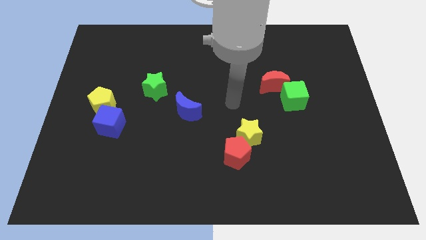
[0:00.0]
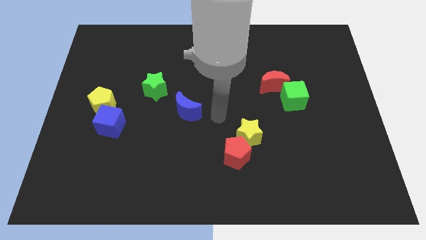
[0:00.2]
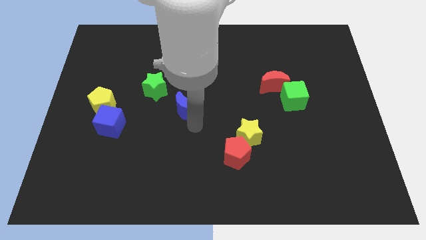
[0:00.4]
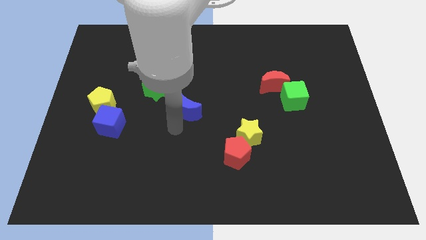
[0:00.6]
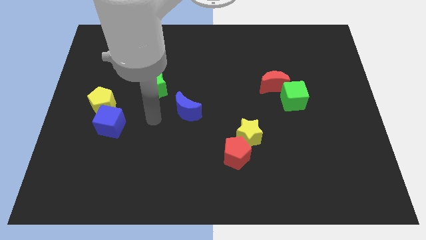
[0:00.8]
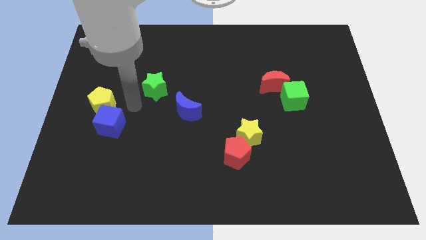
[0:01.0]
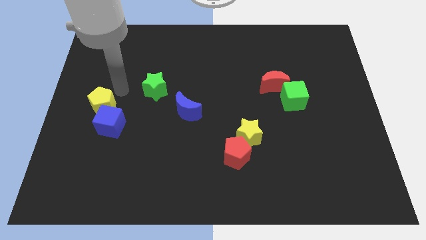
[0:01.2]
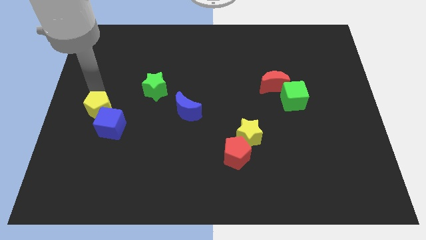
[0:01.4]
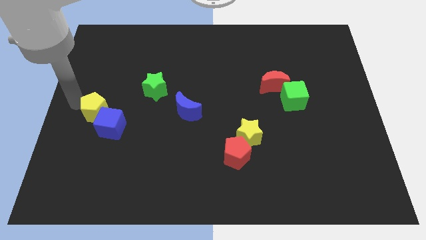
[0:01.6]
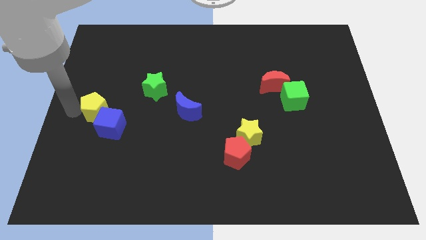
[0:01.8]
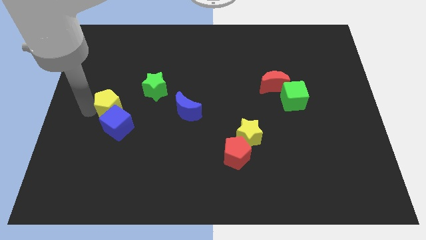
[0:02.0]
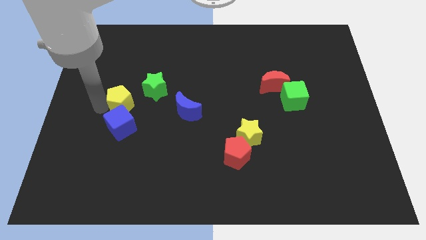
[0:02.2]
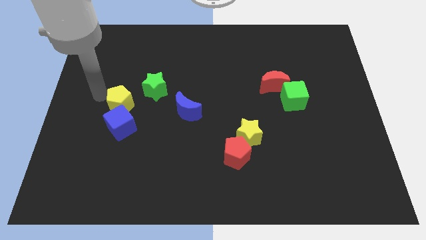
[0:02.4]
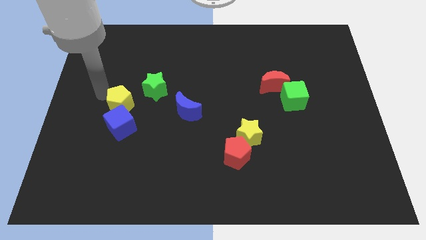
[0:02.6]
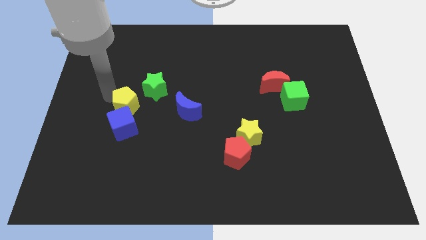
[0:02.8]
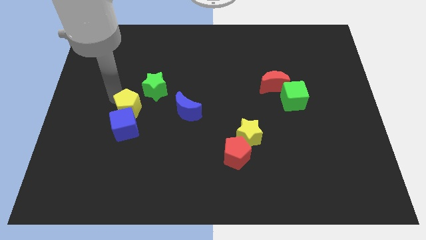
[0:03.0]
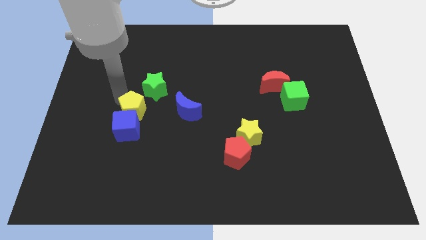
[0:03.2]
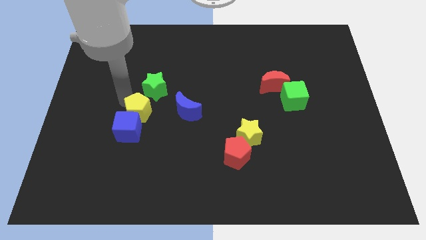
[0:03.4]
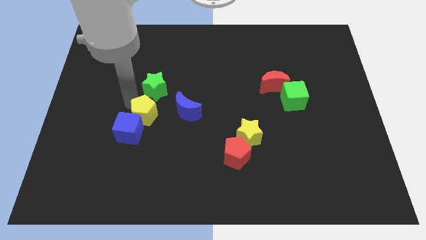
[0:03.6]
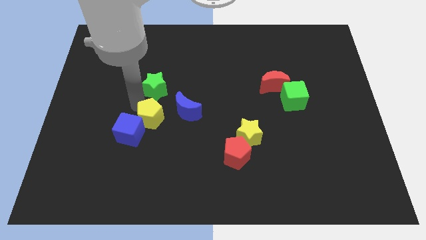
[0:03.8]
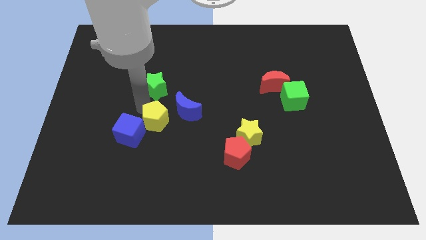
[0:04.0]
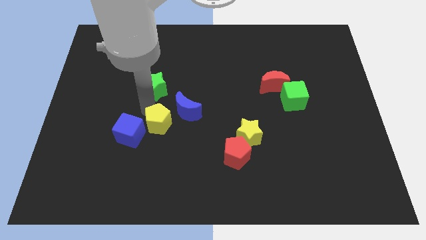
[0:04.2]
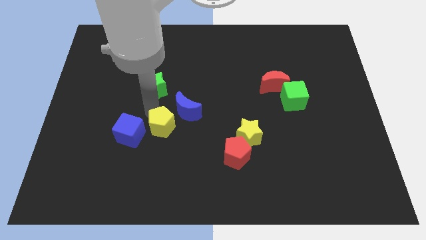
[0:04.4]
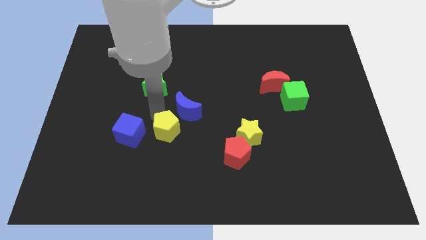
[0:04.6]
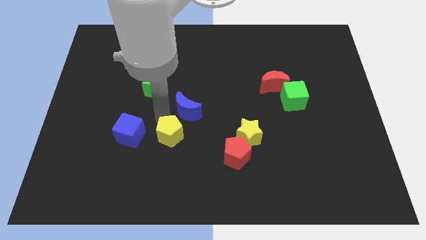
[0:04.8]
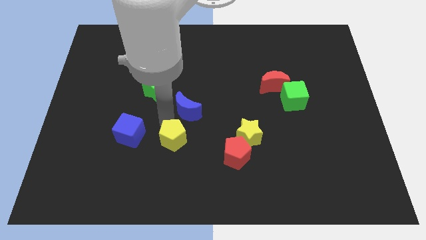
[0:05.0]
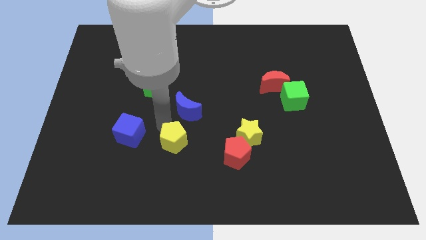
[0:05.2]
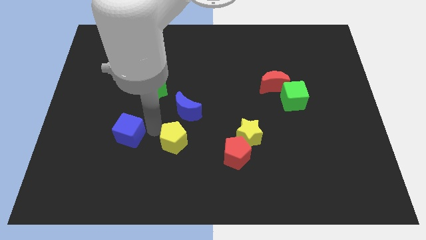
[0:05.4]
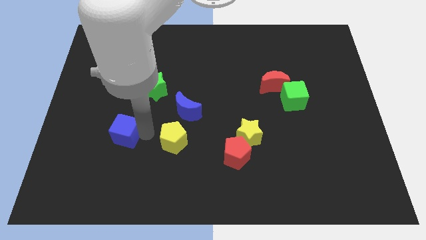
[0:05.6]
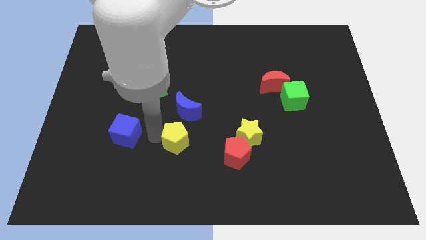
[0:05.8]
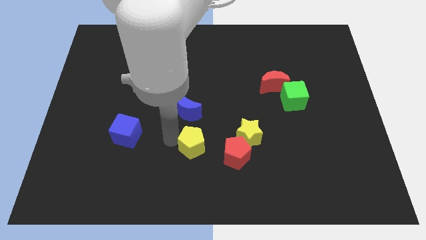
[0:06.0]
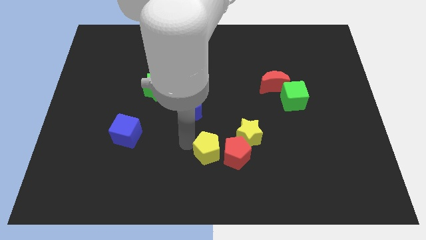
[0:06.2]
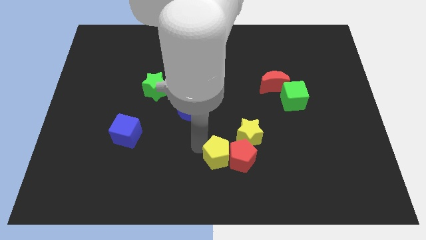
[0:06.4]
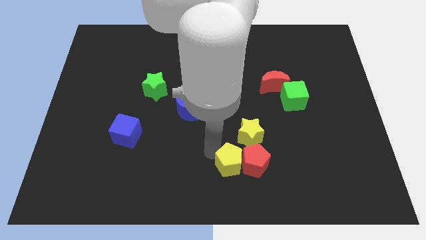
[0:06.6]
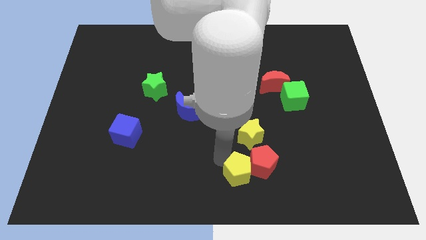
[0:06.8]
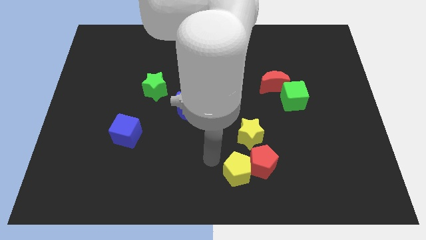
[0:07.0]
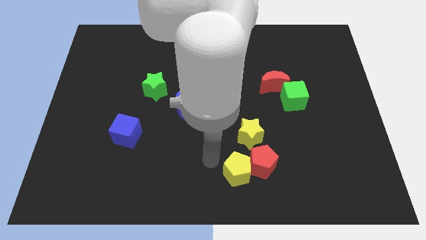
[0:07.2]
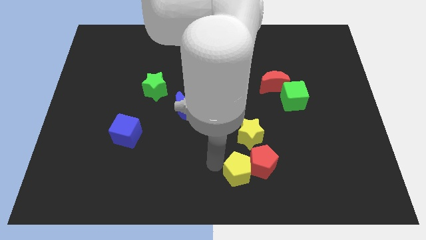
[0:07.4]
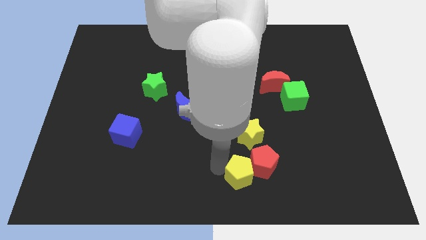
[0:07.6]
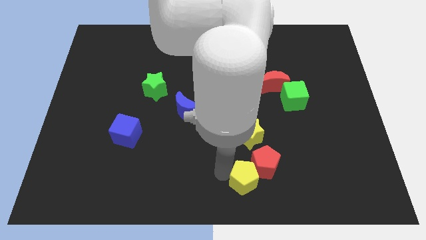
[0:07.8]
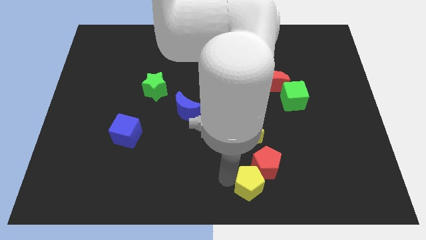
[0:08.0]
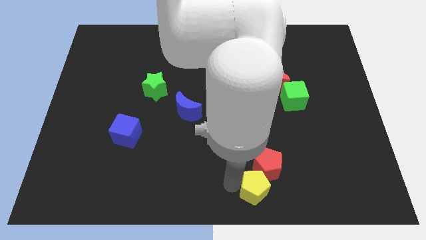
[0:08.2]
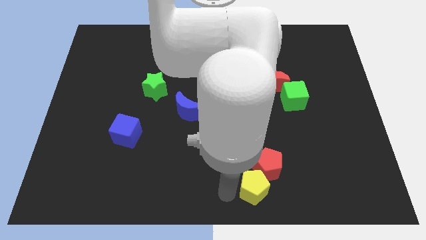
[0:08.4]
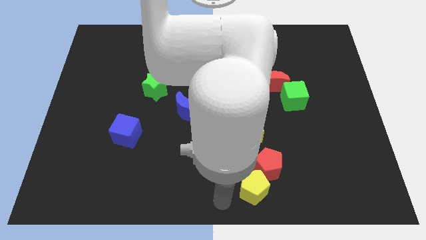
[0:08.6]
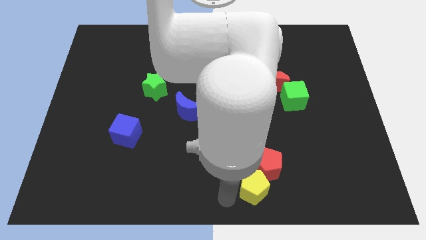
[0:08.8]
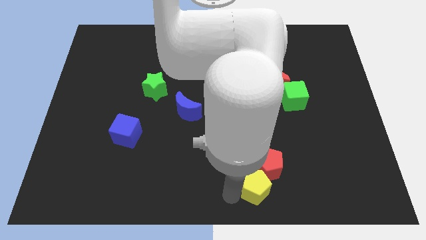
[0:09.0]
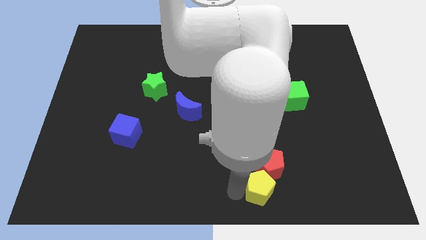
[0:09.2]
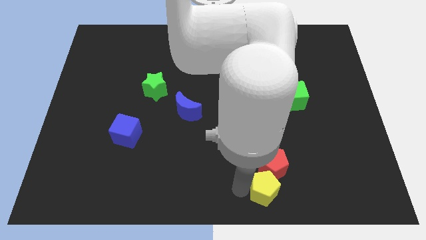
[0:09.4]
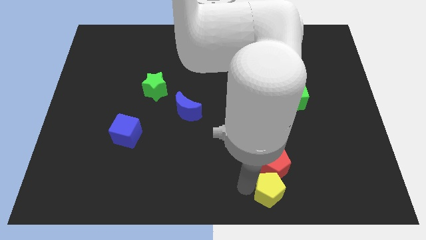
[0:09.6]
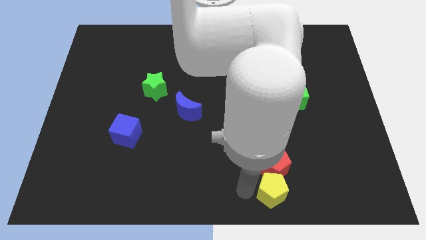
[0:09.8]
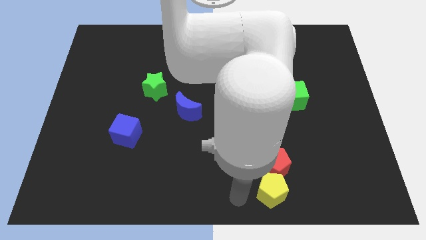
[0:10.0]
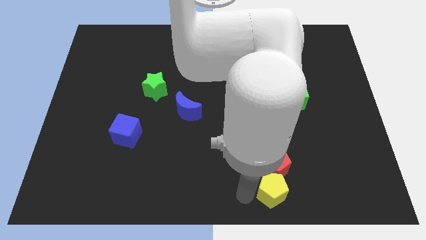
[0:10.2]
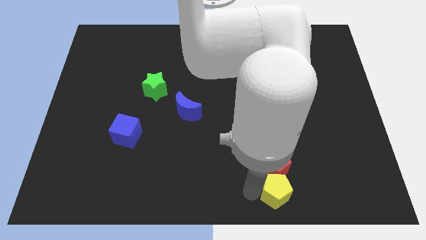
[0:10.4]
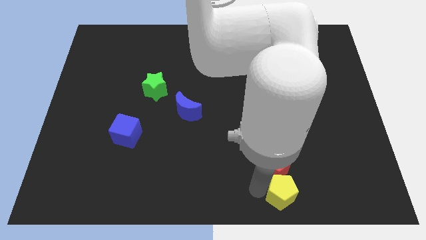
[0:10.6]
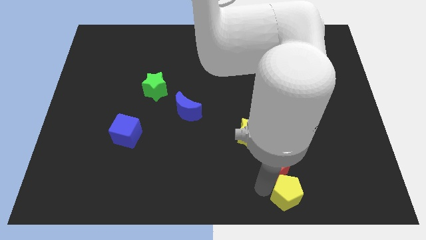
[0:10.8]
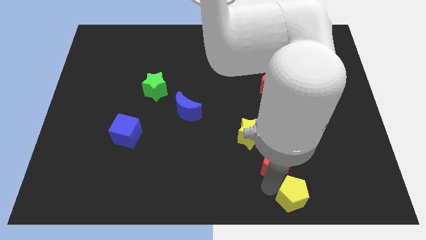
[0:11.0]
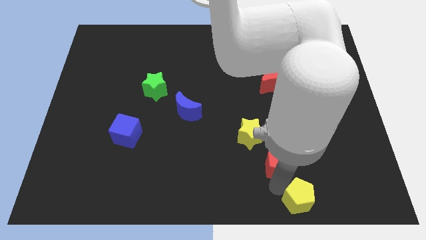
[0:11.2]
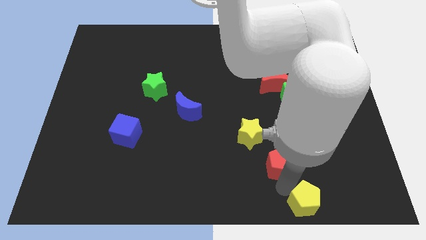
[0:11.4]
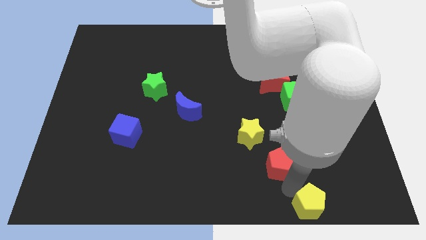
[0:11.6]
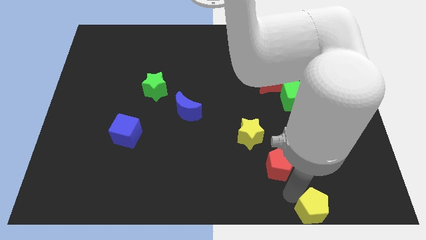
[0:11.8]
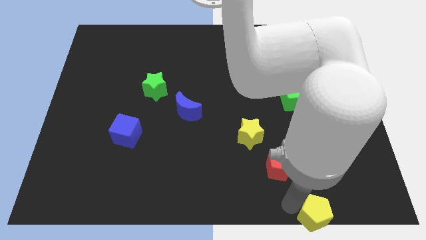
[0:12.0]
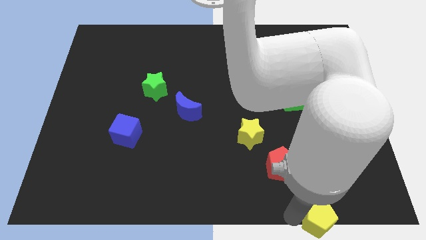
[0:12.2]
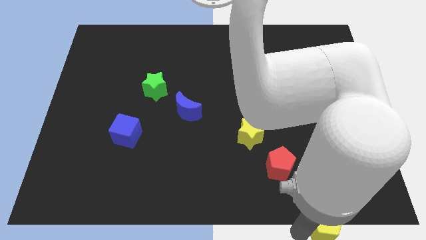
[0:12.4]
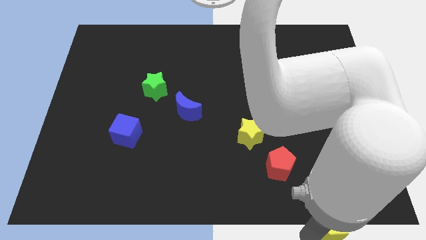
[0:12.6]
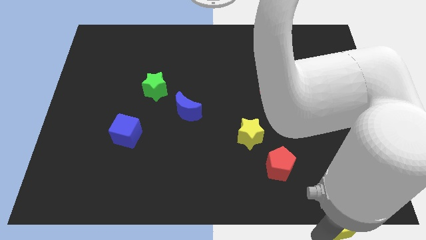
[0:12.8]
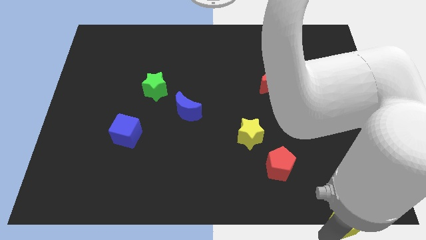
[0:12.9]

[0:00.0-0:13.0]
put the yellow pentagon to the bottom right corner
